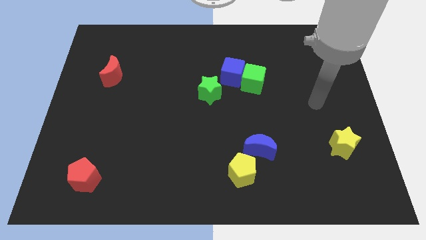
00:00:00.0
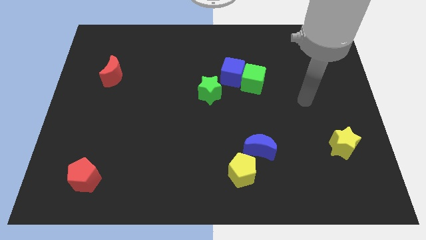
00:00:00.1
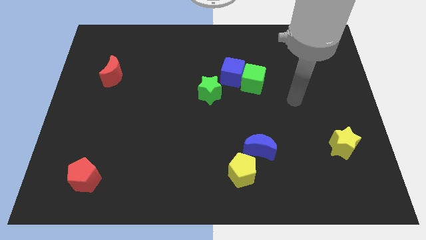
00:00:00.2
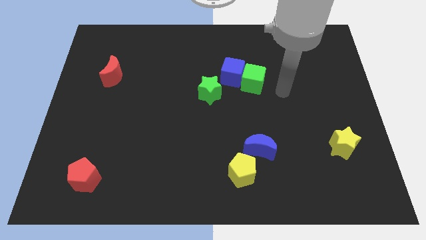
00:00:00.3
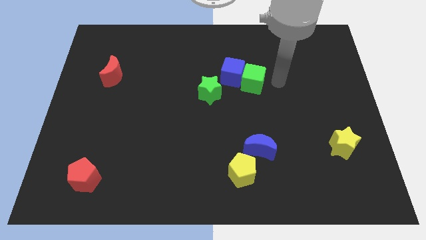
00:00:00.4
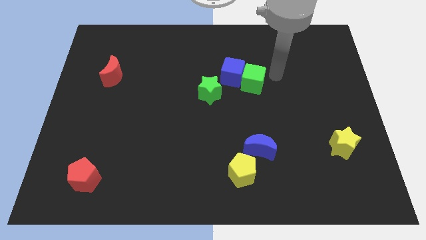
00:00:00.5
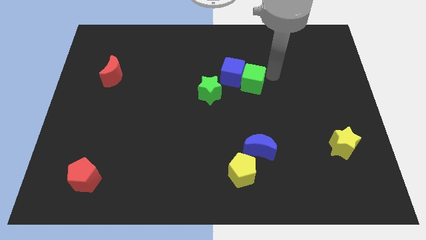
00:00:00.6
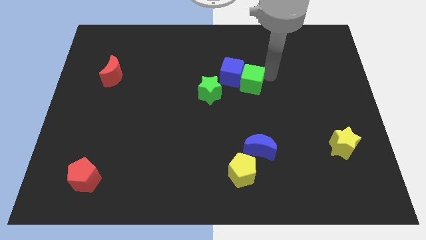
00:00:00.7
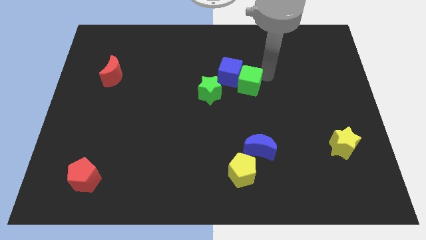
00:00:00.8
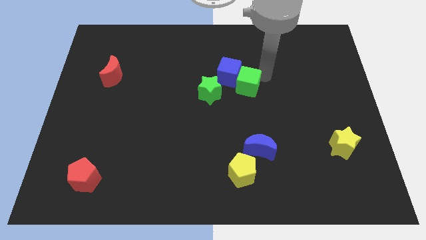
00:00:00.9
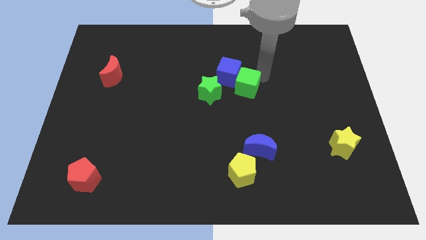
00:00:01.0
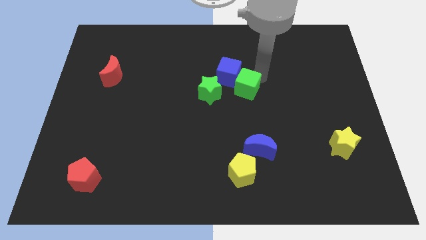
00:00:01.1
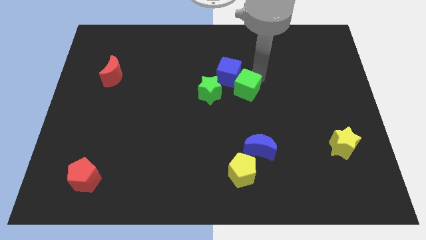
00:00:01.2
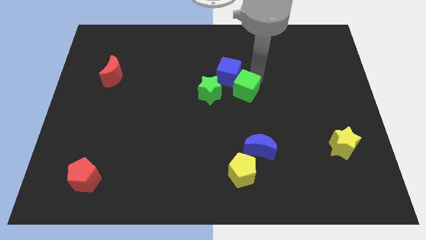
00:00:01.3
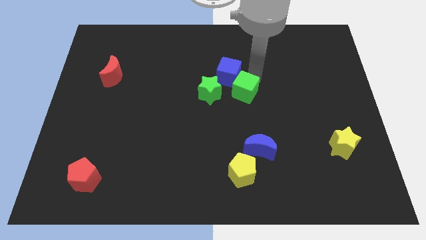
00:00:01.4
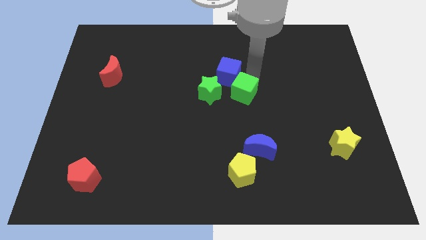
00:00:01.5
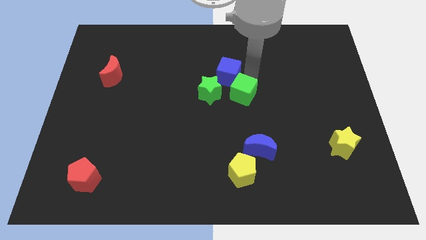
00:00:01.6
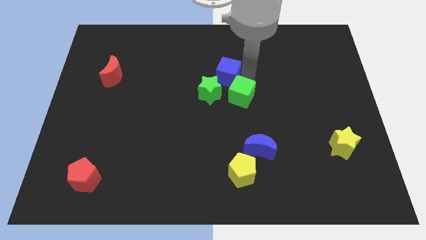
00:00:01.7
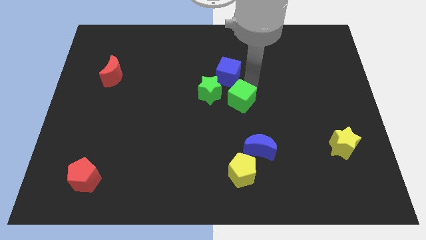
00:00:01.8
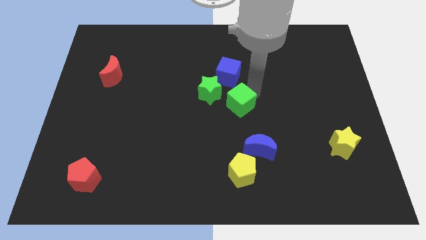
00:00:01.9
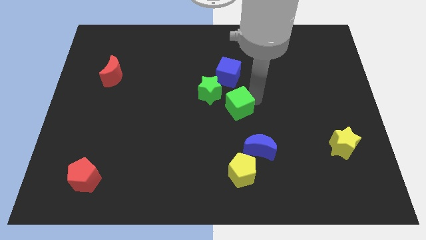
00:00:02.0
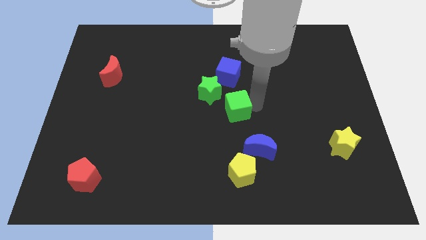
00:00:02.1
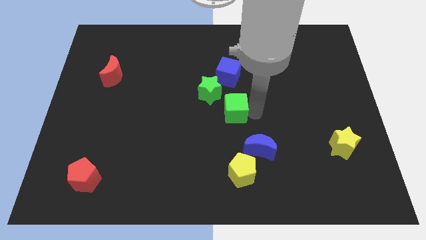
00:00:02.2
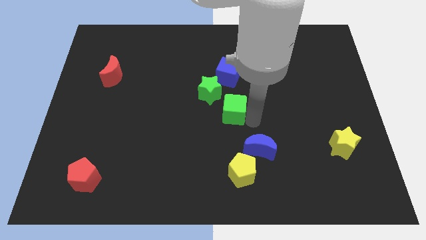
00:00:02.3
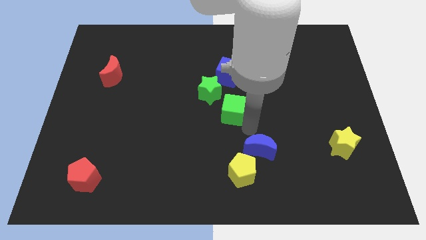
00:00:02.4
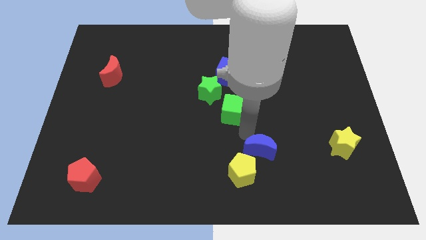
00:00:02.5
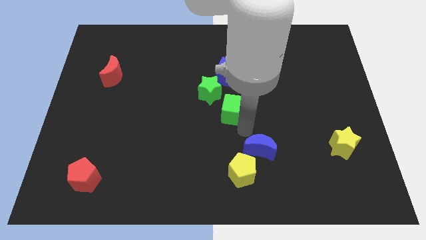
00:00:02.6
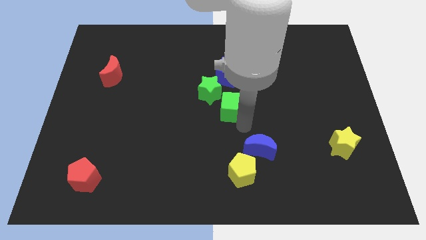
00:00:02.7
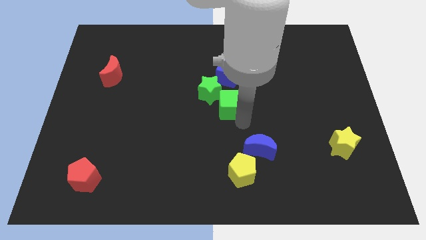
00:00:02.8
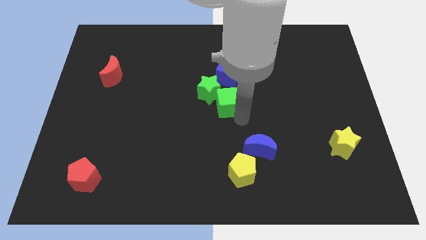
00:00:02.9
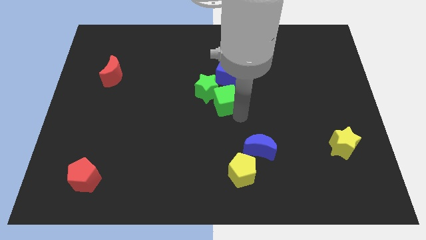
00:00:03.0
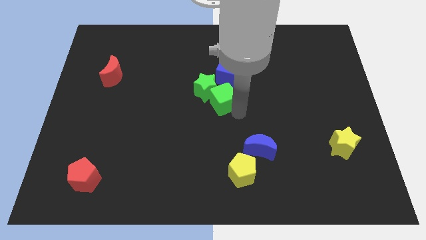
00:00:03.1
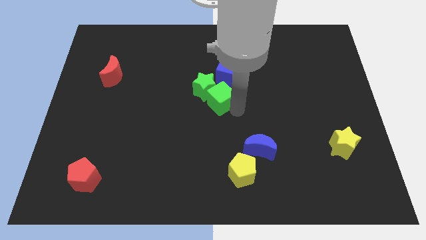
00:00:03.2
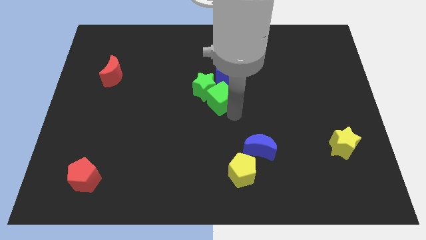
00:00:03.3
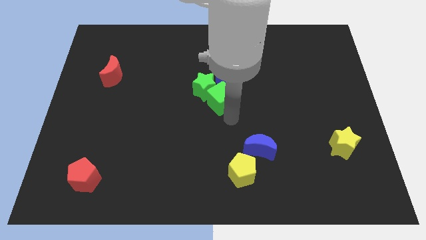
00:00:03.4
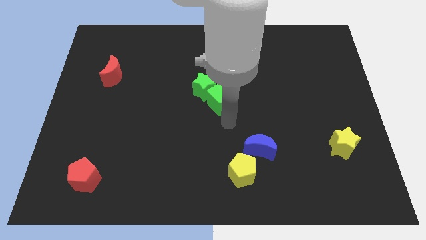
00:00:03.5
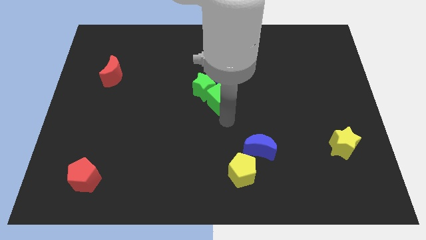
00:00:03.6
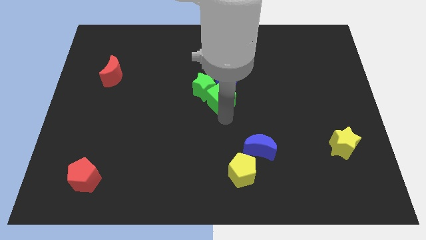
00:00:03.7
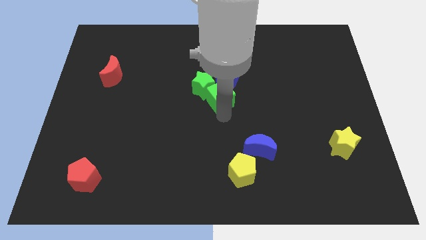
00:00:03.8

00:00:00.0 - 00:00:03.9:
slide the green cube a little bit left

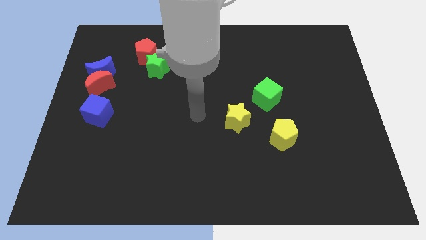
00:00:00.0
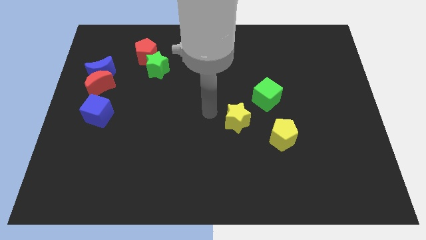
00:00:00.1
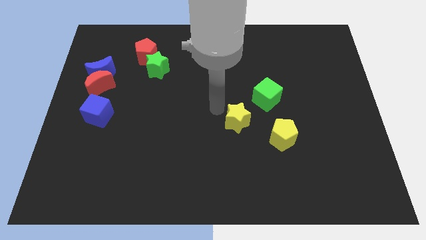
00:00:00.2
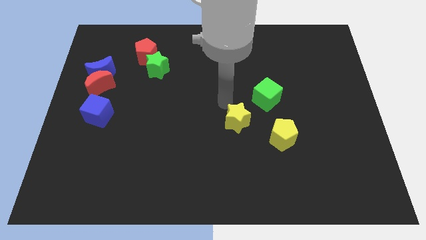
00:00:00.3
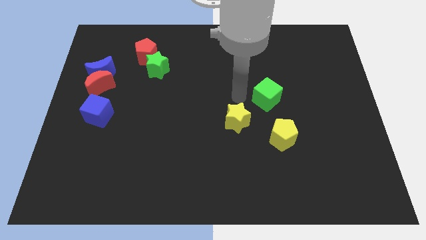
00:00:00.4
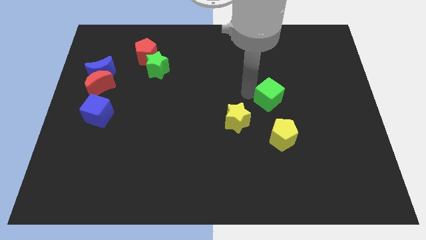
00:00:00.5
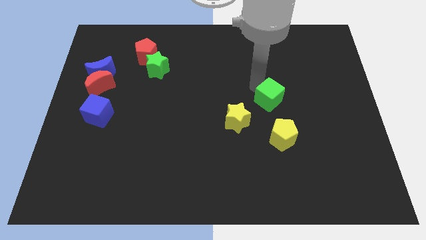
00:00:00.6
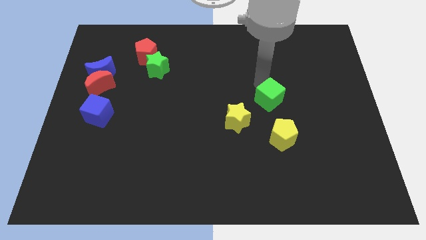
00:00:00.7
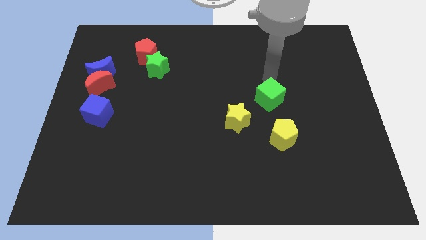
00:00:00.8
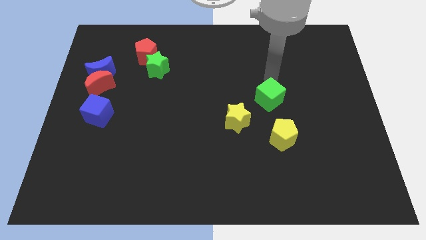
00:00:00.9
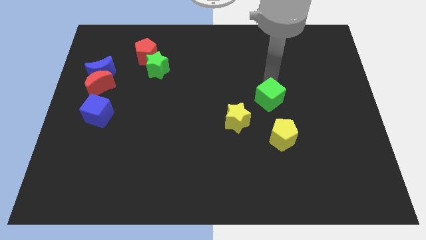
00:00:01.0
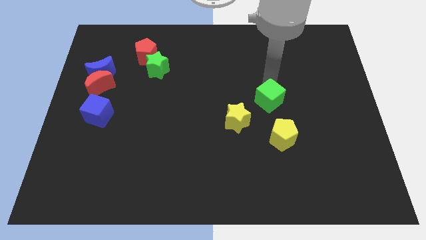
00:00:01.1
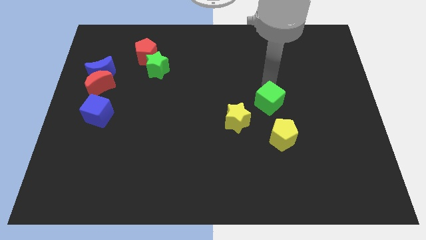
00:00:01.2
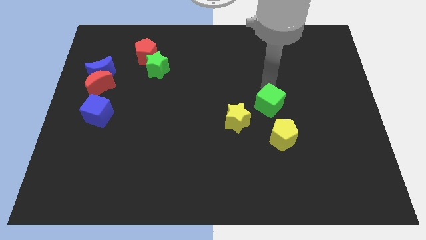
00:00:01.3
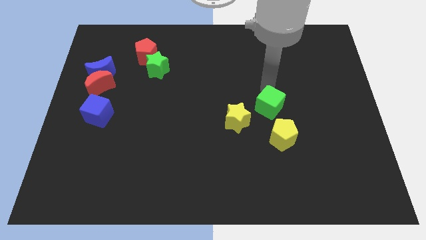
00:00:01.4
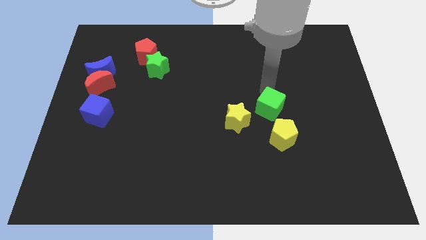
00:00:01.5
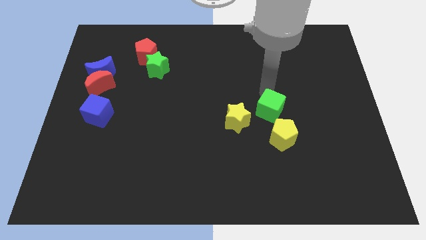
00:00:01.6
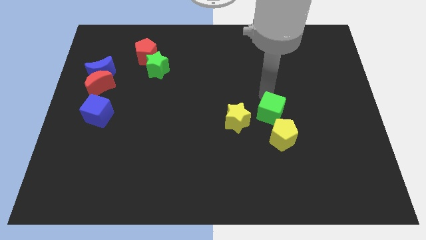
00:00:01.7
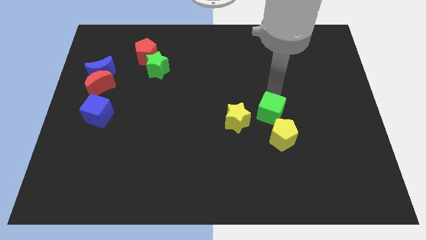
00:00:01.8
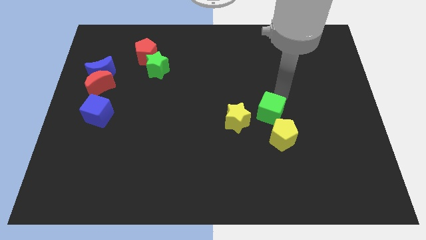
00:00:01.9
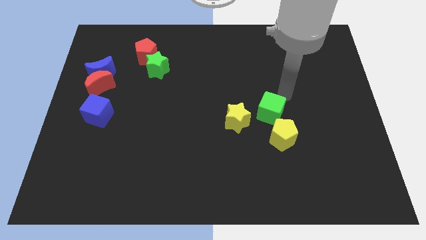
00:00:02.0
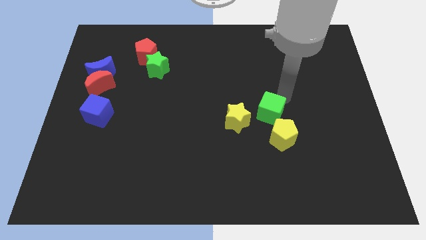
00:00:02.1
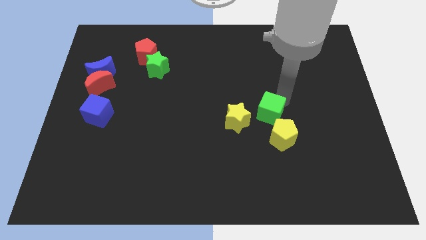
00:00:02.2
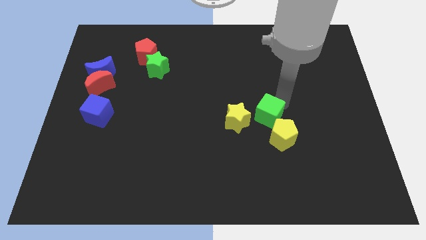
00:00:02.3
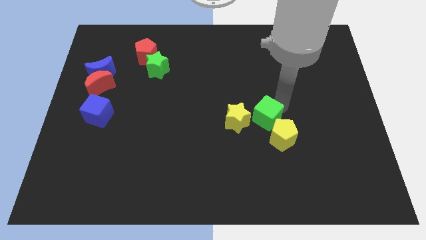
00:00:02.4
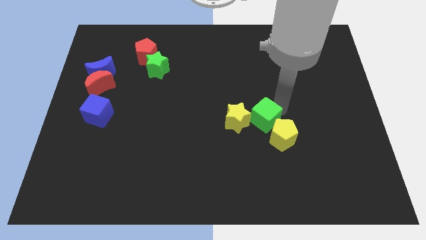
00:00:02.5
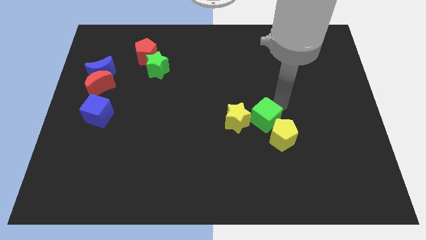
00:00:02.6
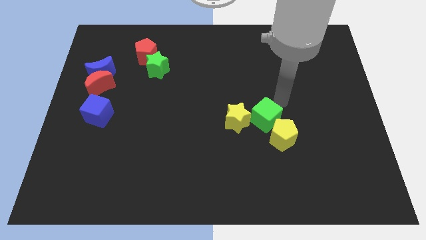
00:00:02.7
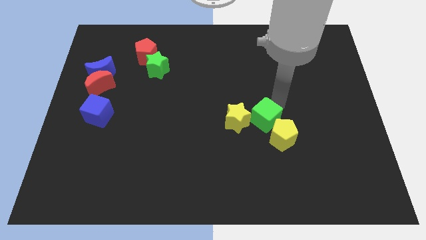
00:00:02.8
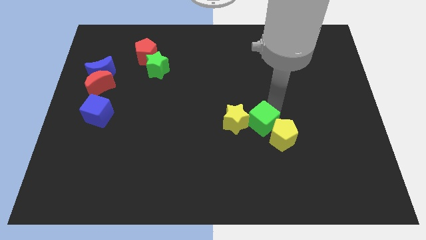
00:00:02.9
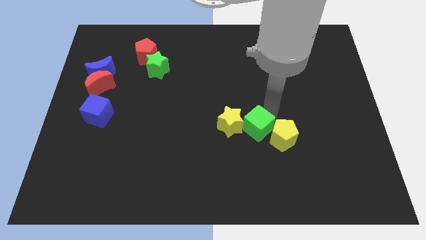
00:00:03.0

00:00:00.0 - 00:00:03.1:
slightly slide the green cube diagonally down and to the left

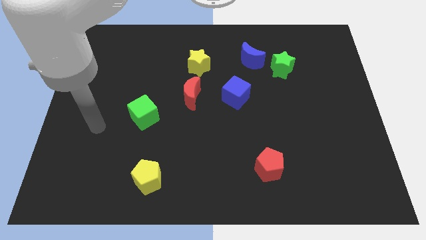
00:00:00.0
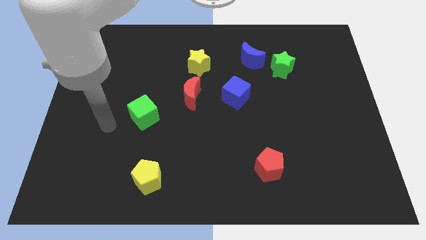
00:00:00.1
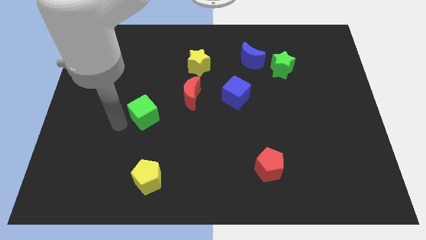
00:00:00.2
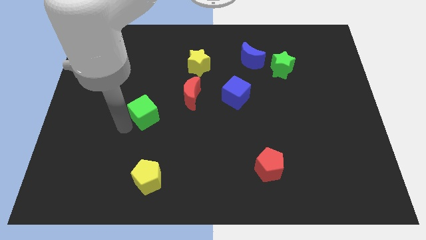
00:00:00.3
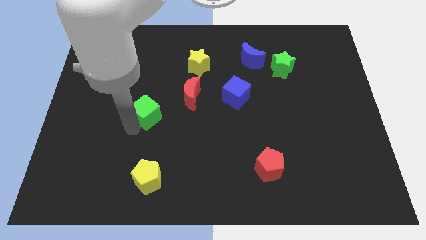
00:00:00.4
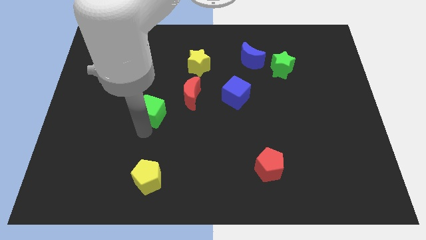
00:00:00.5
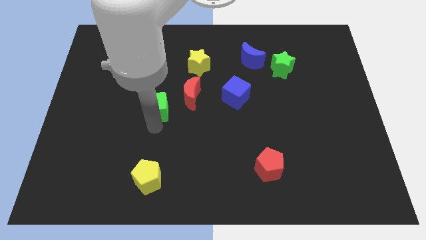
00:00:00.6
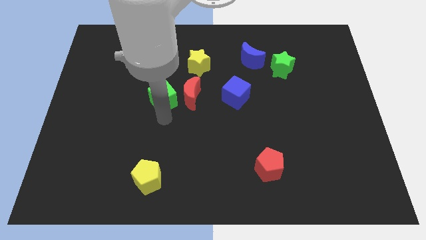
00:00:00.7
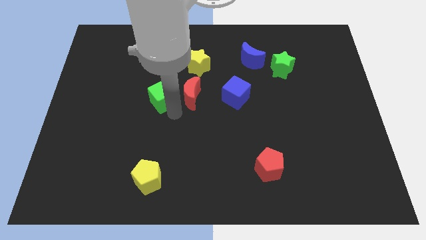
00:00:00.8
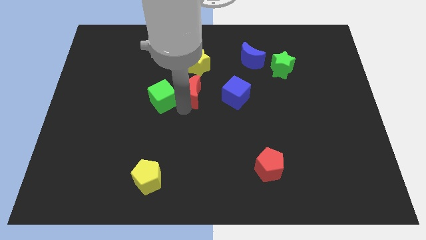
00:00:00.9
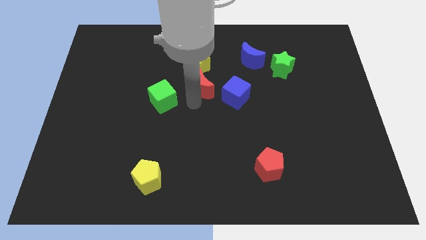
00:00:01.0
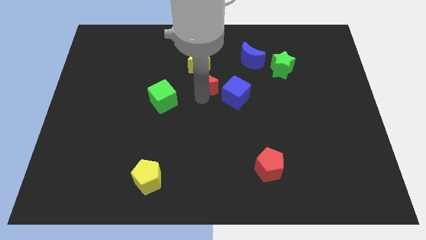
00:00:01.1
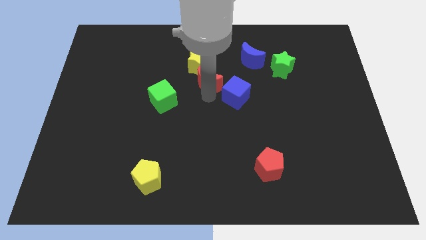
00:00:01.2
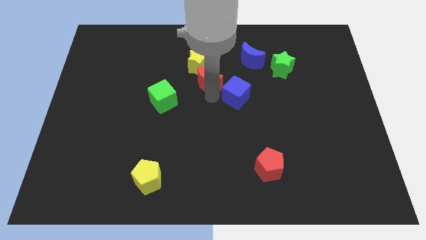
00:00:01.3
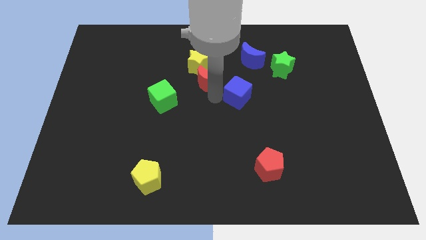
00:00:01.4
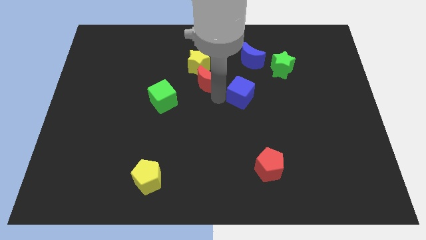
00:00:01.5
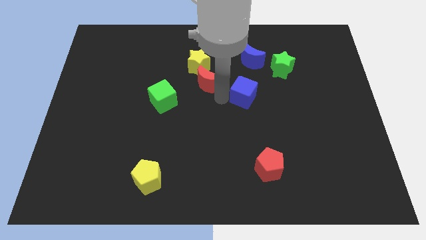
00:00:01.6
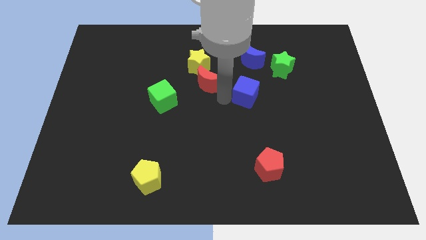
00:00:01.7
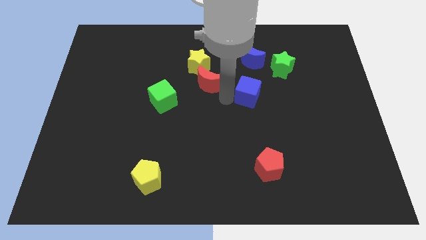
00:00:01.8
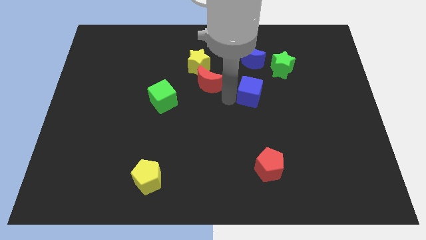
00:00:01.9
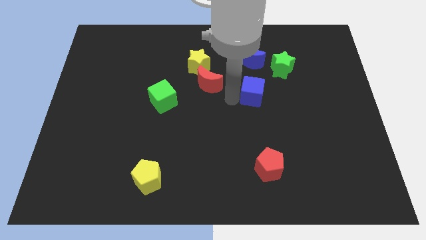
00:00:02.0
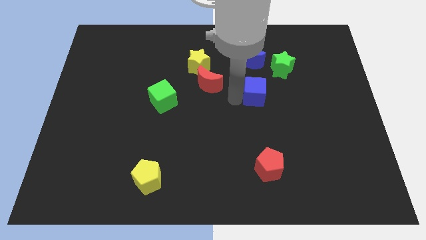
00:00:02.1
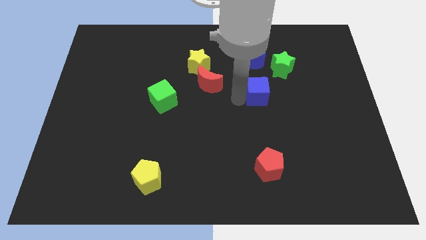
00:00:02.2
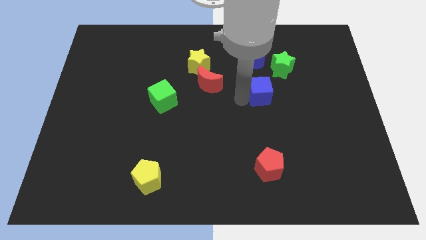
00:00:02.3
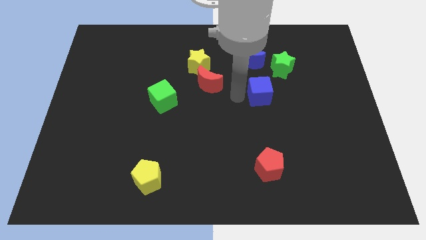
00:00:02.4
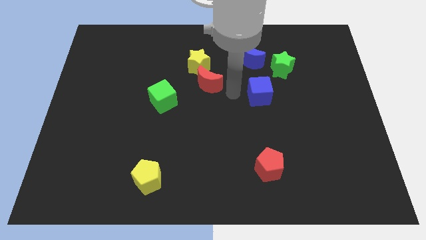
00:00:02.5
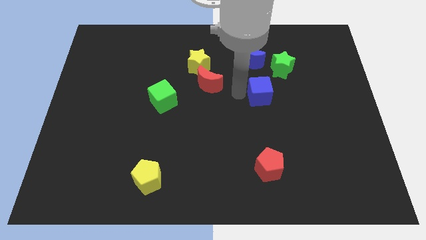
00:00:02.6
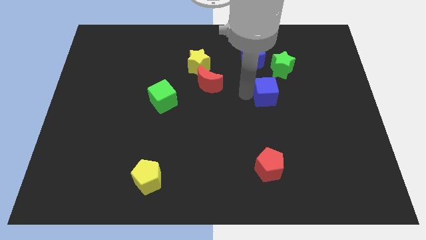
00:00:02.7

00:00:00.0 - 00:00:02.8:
slightly slide the blue cube right
